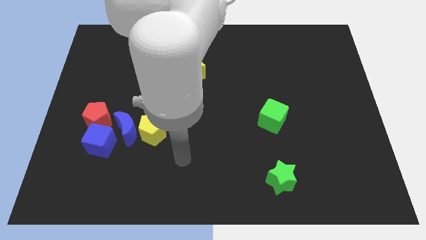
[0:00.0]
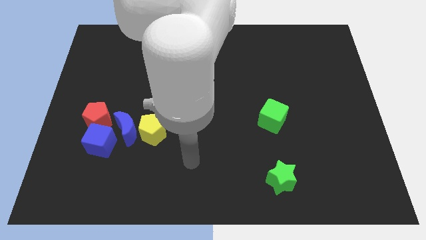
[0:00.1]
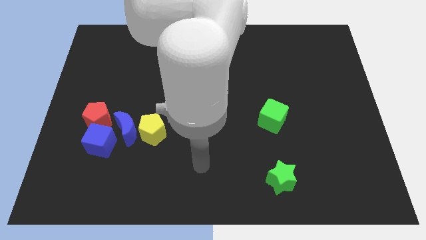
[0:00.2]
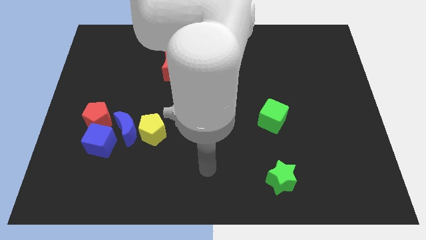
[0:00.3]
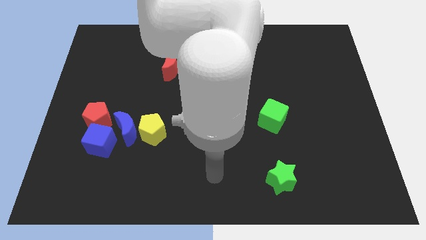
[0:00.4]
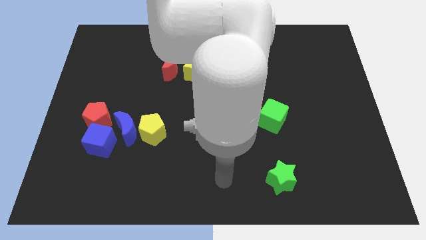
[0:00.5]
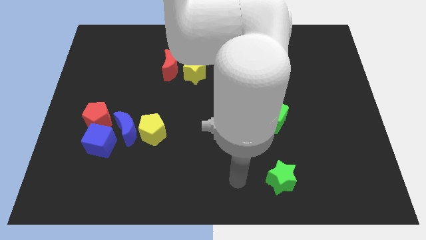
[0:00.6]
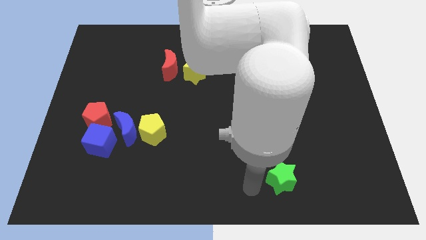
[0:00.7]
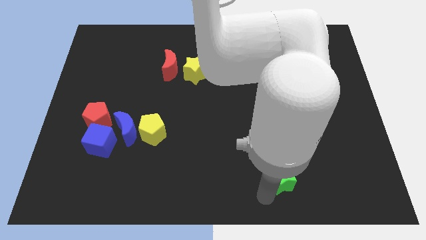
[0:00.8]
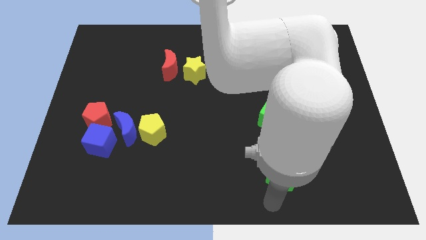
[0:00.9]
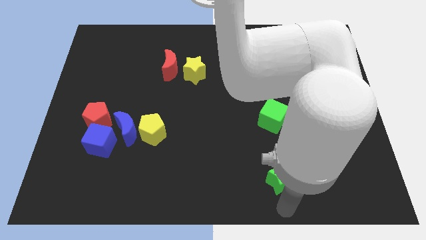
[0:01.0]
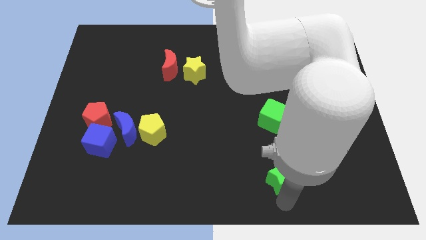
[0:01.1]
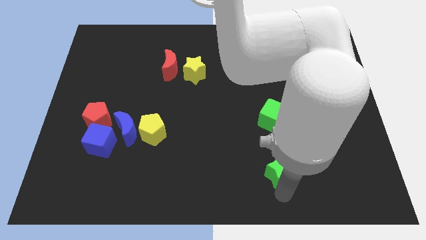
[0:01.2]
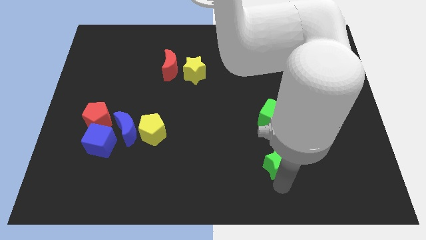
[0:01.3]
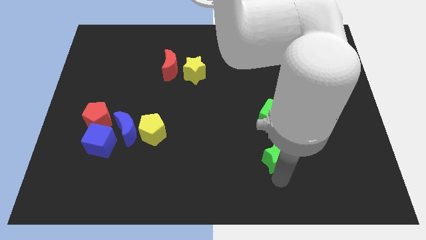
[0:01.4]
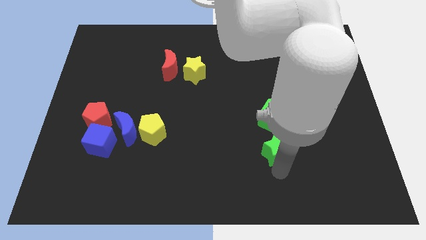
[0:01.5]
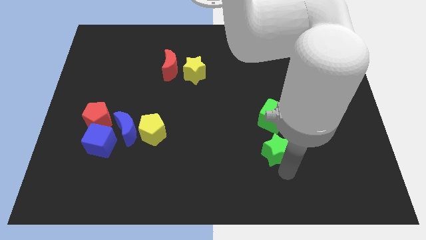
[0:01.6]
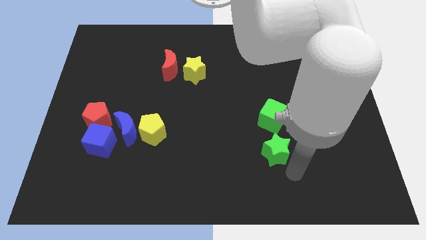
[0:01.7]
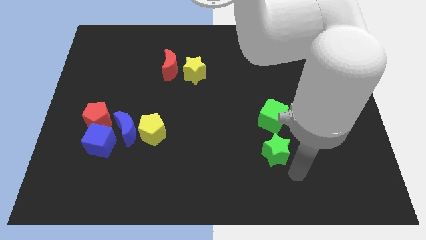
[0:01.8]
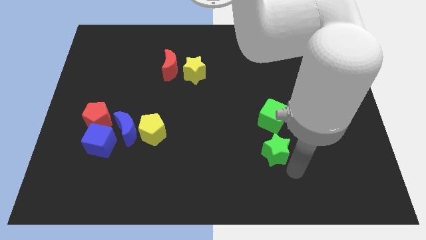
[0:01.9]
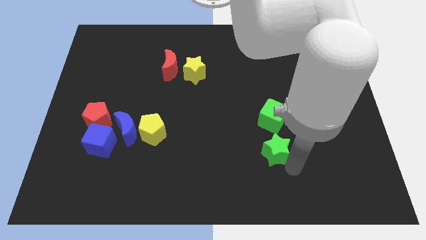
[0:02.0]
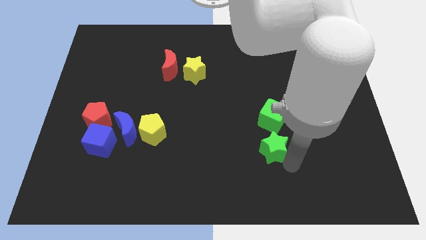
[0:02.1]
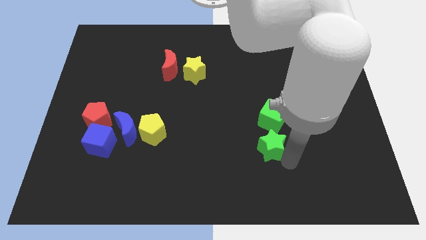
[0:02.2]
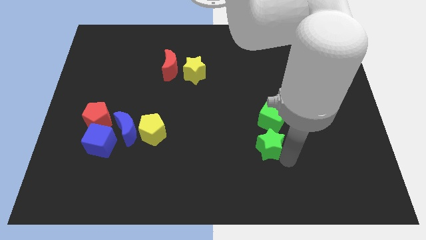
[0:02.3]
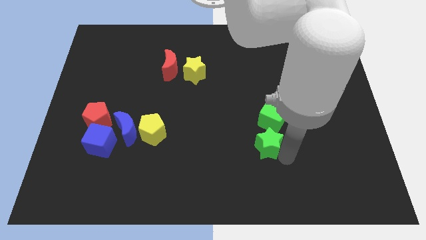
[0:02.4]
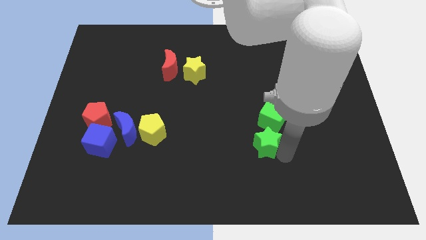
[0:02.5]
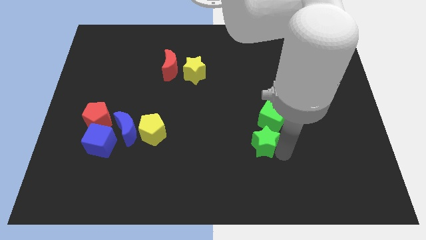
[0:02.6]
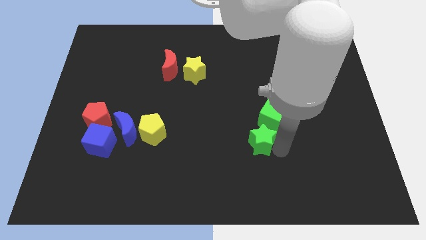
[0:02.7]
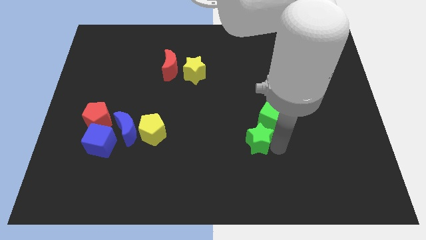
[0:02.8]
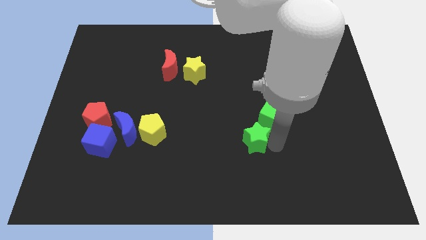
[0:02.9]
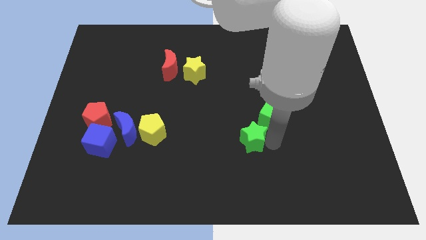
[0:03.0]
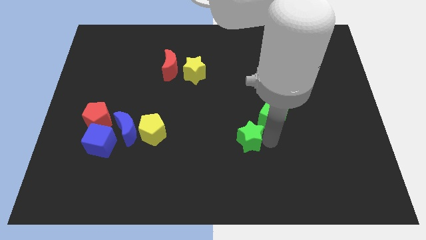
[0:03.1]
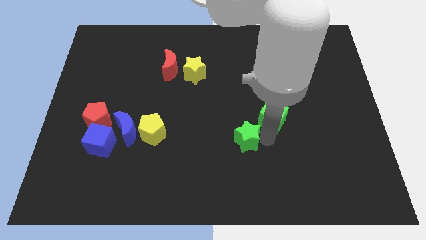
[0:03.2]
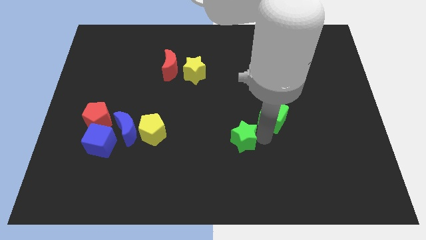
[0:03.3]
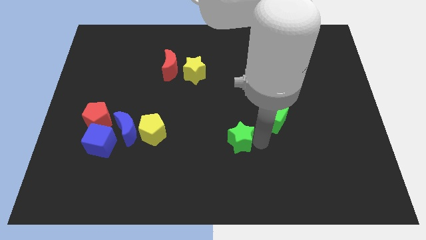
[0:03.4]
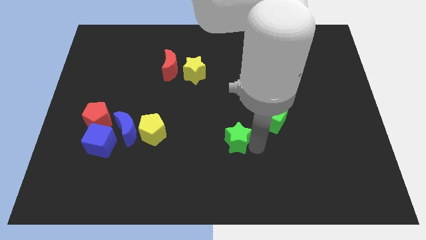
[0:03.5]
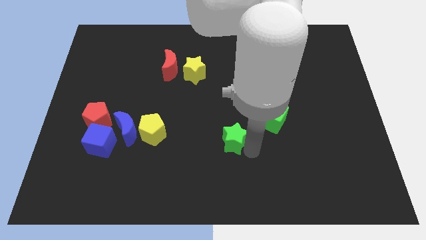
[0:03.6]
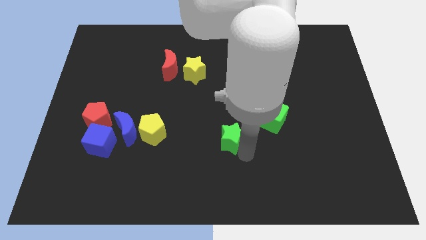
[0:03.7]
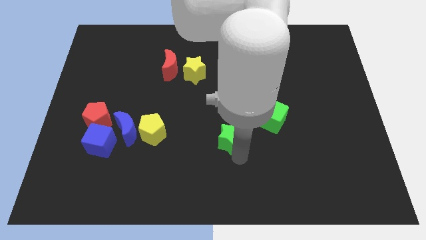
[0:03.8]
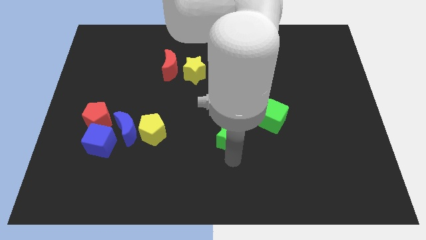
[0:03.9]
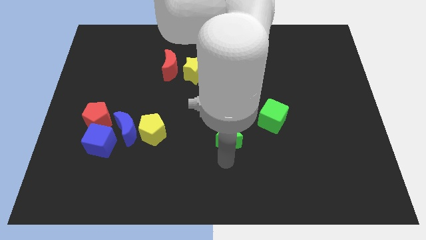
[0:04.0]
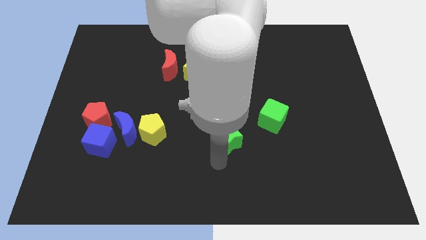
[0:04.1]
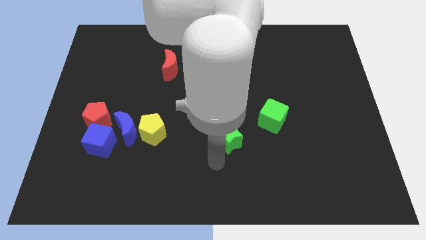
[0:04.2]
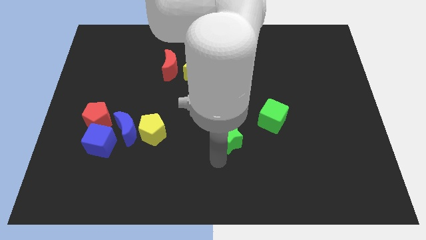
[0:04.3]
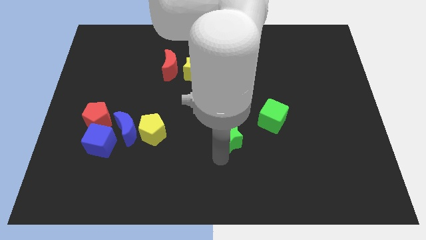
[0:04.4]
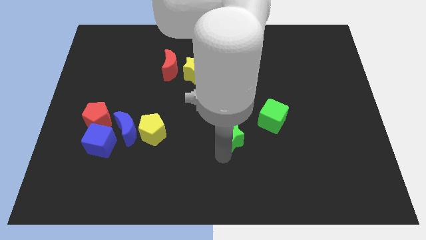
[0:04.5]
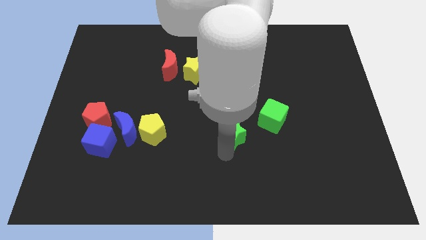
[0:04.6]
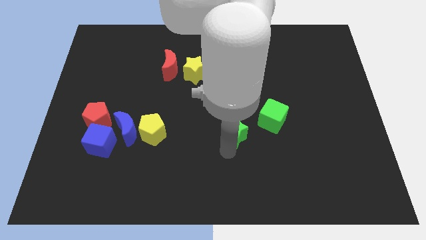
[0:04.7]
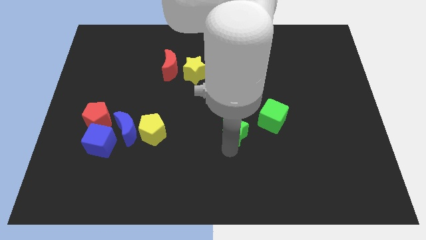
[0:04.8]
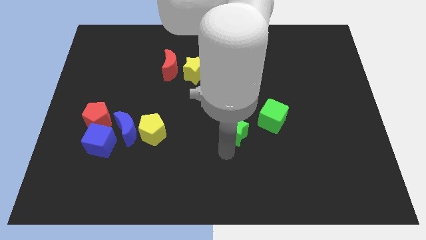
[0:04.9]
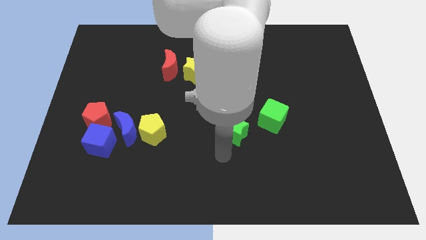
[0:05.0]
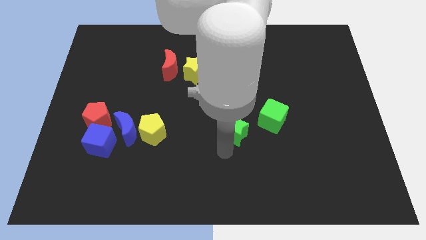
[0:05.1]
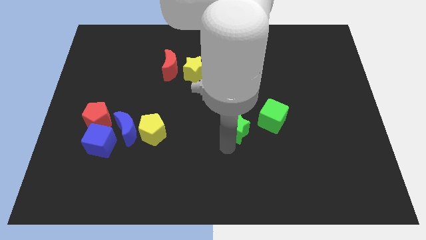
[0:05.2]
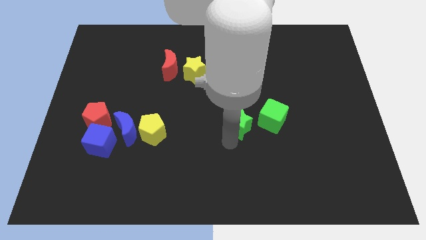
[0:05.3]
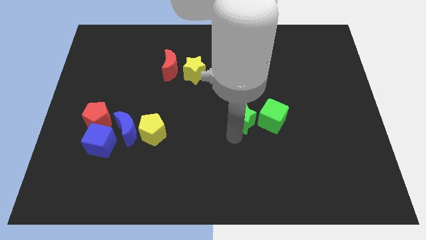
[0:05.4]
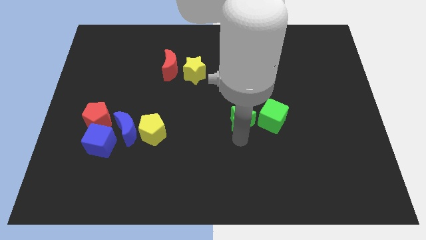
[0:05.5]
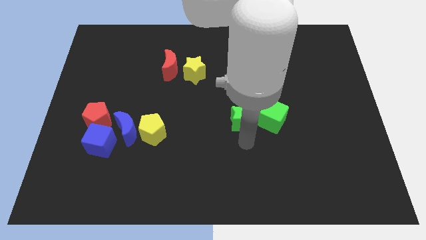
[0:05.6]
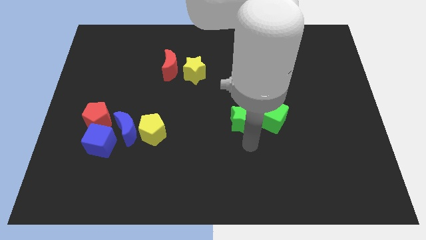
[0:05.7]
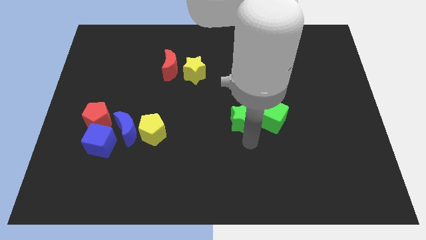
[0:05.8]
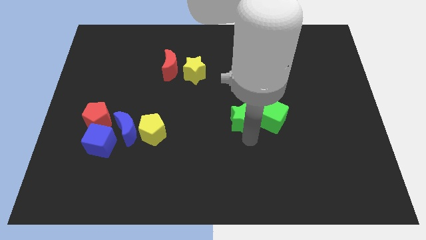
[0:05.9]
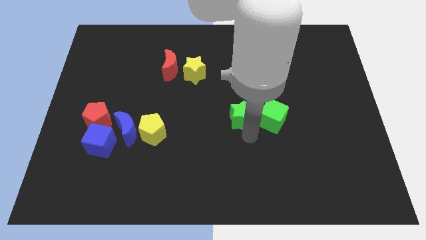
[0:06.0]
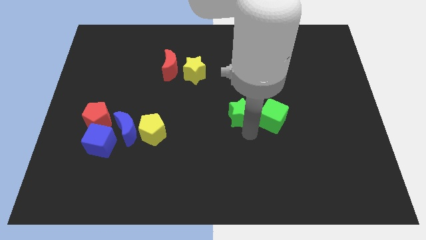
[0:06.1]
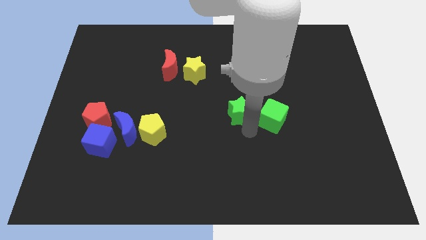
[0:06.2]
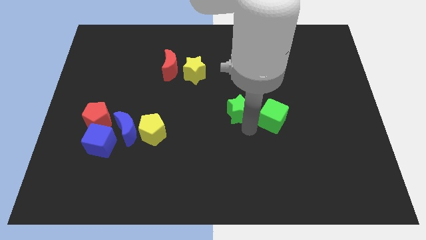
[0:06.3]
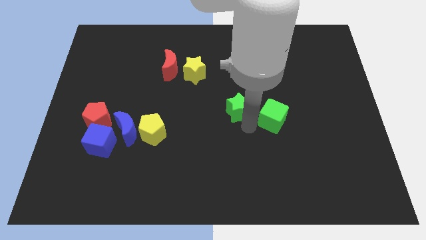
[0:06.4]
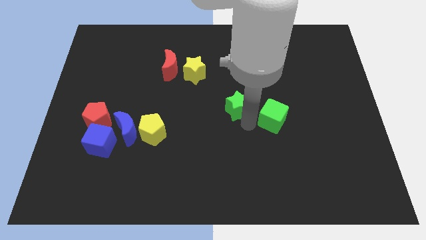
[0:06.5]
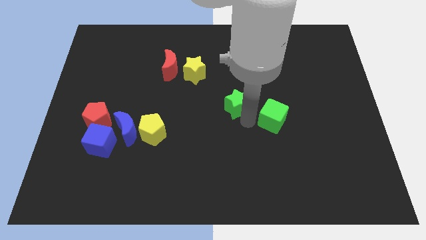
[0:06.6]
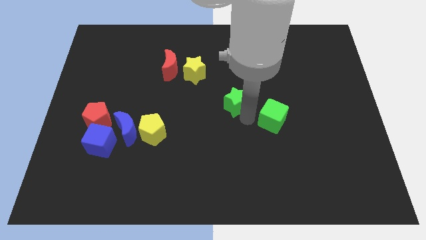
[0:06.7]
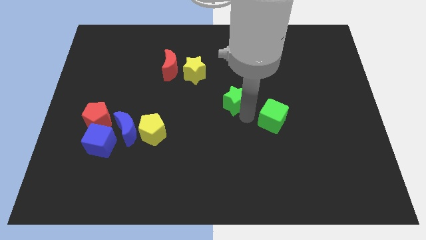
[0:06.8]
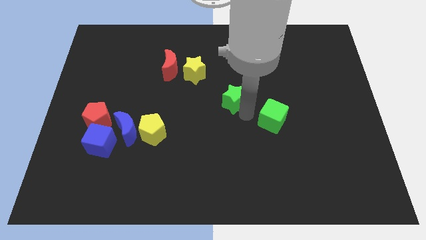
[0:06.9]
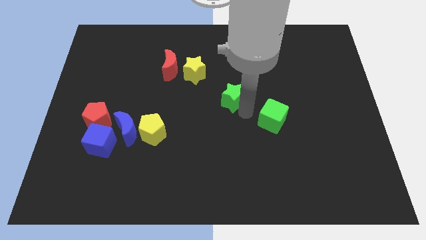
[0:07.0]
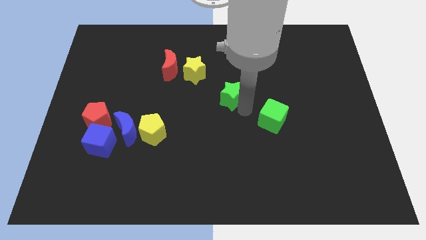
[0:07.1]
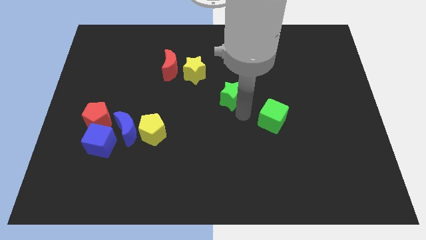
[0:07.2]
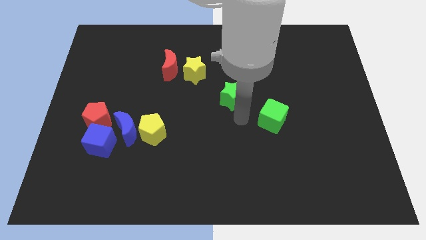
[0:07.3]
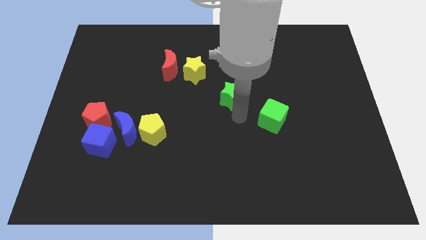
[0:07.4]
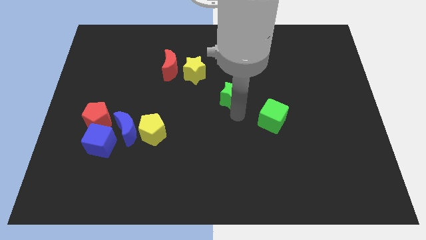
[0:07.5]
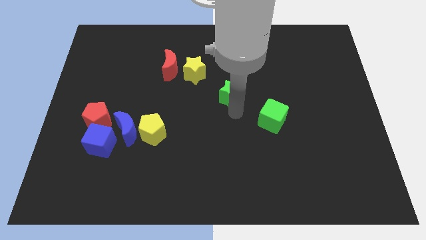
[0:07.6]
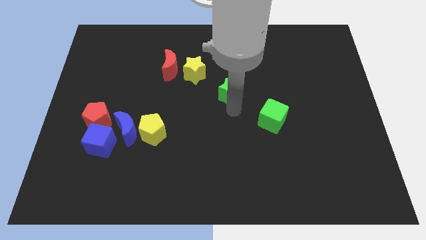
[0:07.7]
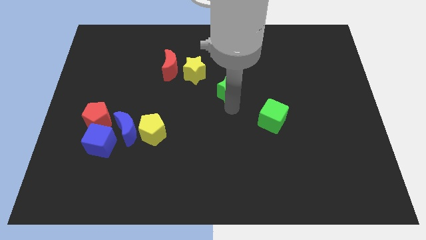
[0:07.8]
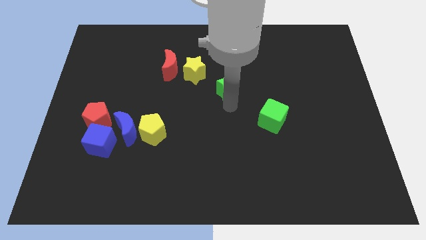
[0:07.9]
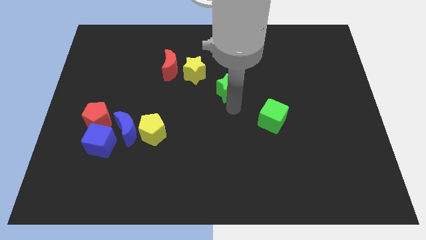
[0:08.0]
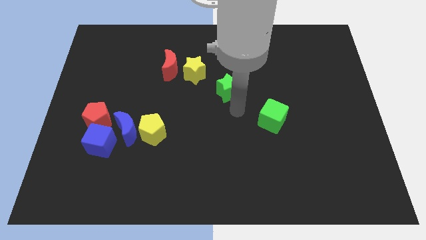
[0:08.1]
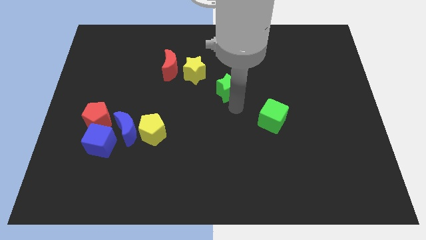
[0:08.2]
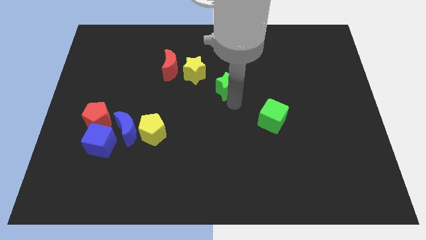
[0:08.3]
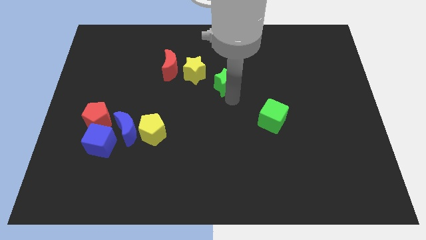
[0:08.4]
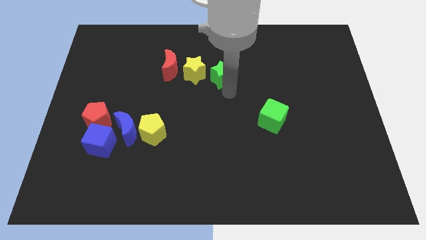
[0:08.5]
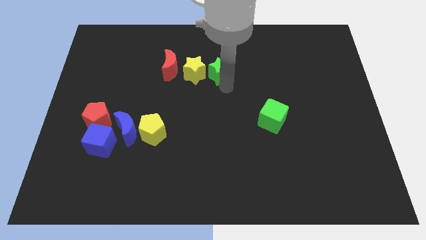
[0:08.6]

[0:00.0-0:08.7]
push the green star diagonally up and to the right of the yellow star
